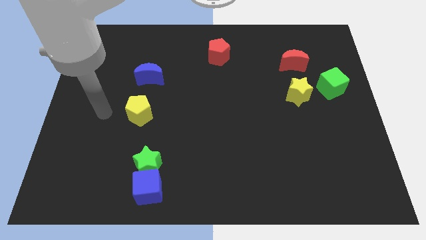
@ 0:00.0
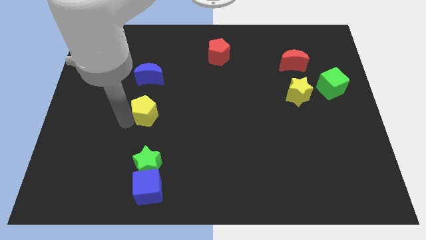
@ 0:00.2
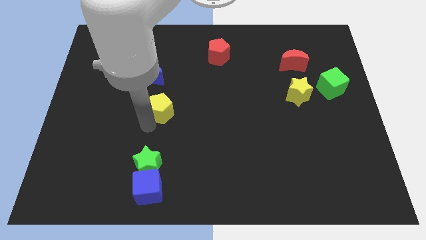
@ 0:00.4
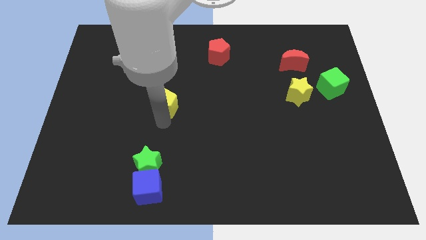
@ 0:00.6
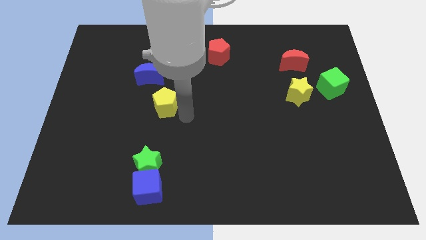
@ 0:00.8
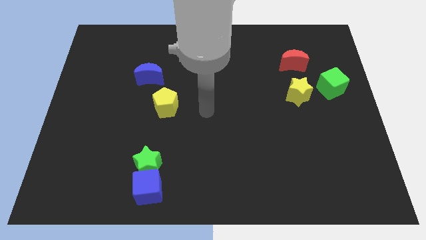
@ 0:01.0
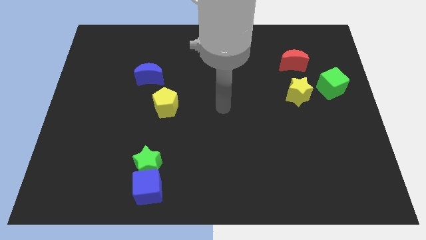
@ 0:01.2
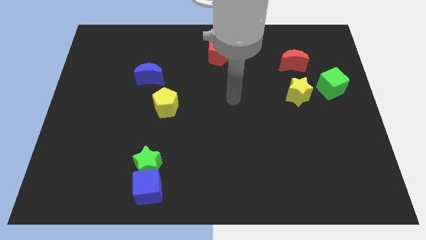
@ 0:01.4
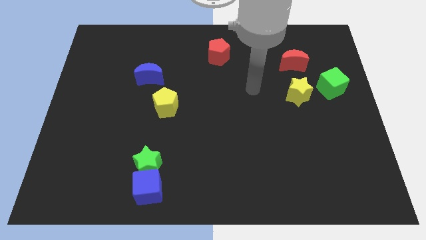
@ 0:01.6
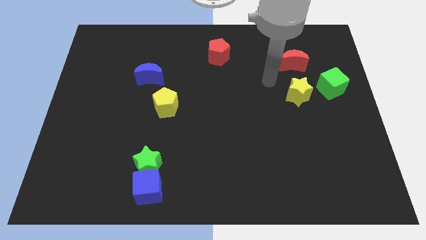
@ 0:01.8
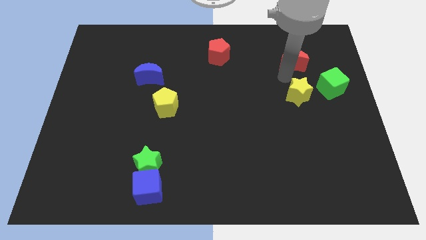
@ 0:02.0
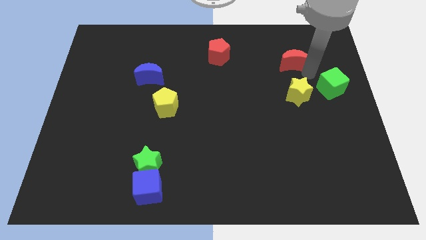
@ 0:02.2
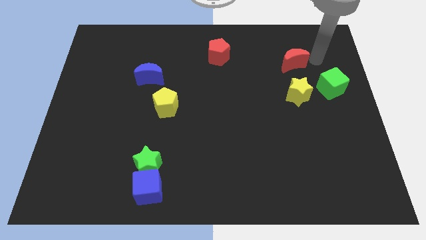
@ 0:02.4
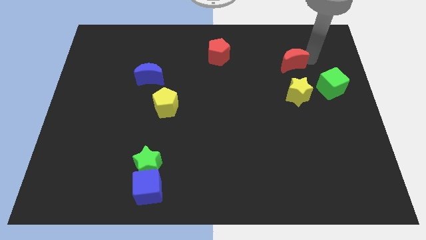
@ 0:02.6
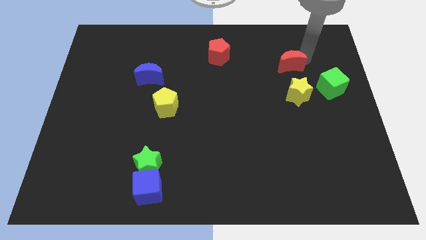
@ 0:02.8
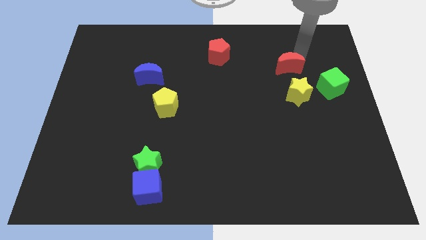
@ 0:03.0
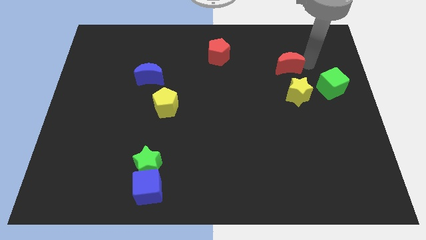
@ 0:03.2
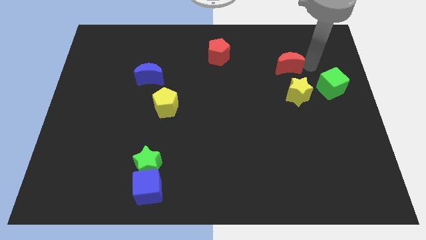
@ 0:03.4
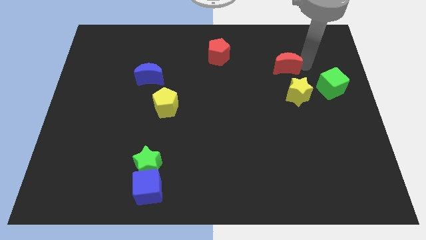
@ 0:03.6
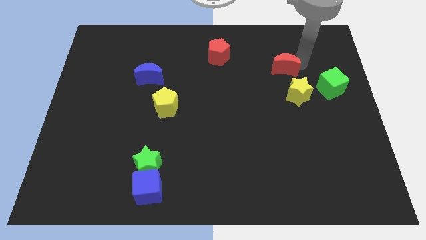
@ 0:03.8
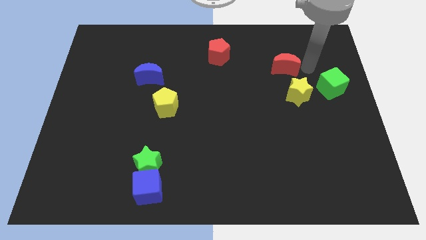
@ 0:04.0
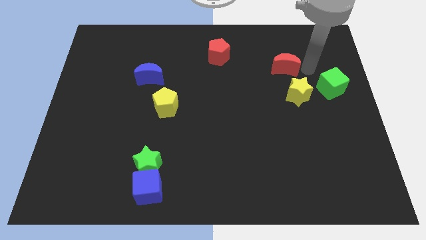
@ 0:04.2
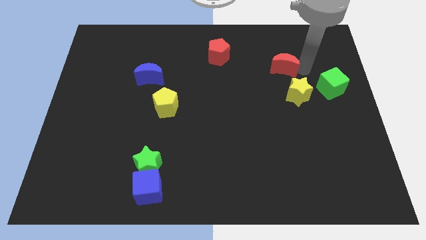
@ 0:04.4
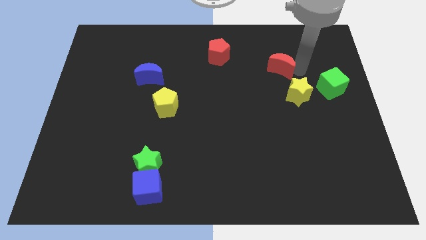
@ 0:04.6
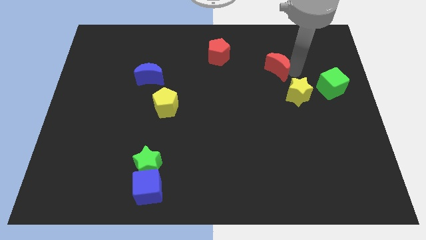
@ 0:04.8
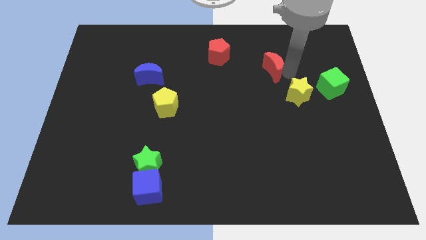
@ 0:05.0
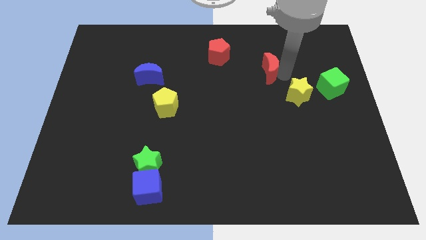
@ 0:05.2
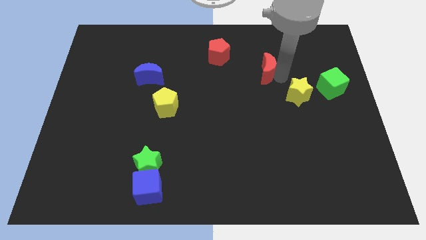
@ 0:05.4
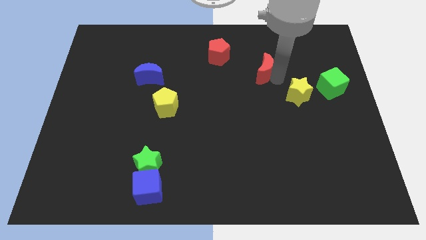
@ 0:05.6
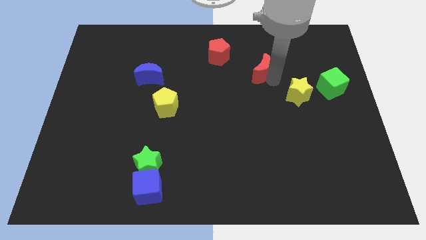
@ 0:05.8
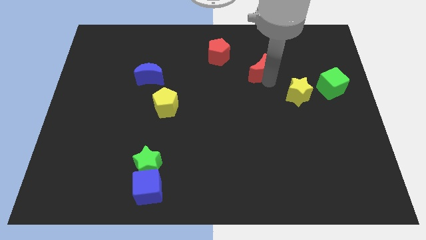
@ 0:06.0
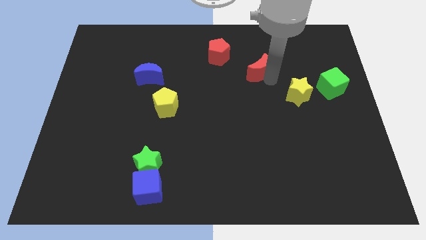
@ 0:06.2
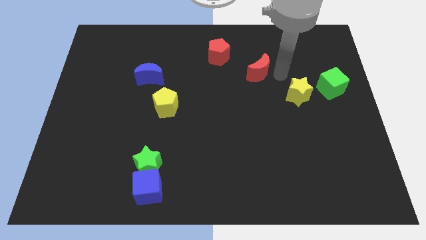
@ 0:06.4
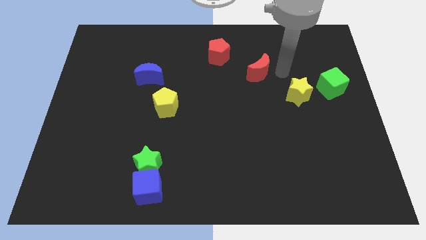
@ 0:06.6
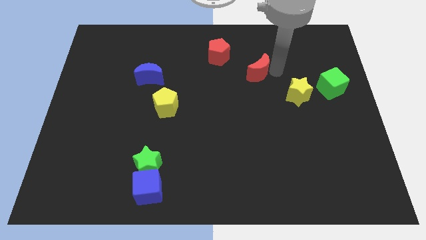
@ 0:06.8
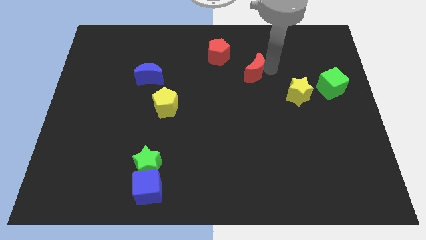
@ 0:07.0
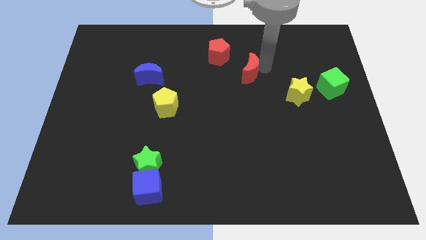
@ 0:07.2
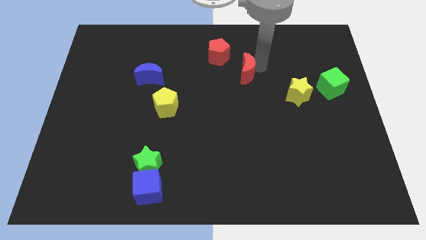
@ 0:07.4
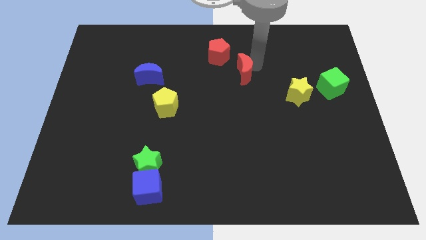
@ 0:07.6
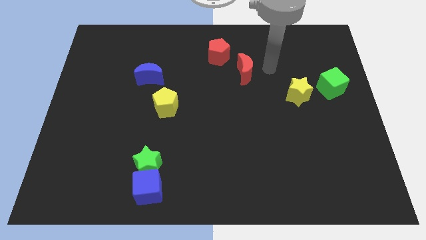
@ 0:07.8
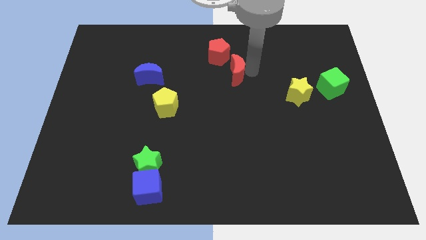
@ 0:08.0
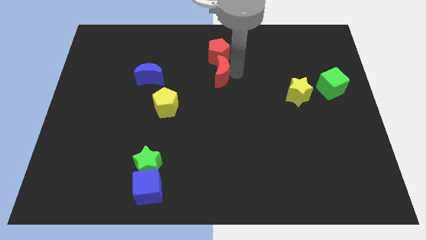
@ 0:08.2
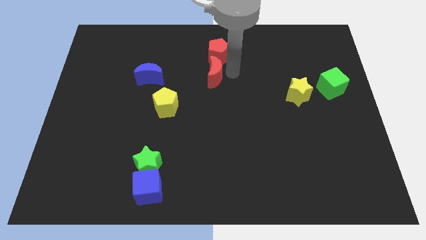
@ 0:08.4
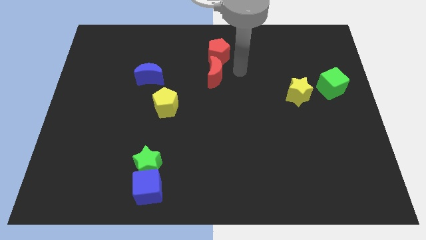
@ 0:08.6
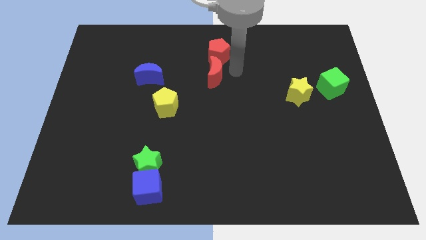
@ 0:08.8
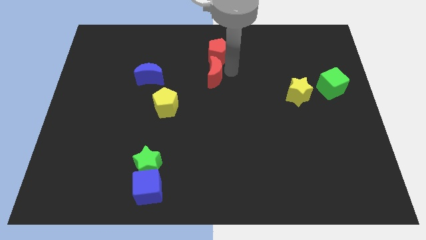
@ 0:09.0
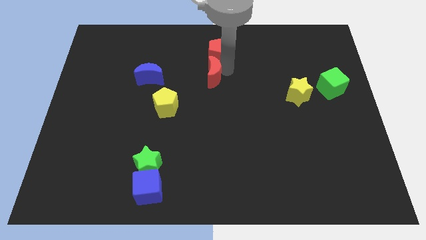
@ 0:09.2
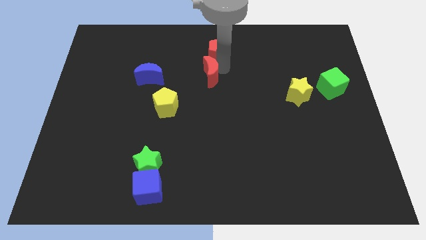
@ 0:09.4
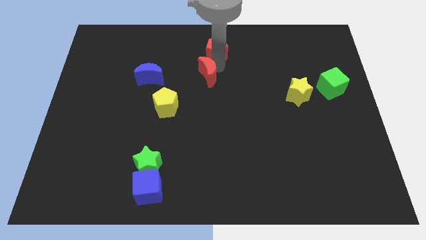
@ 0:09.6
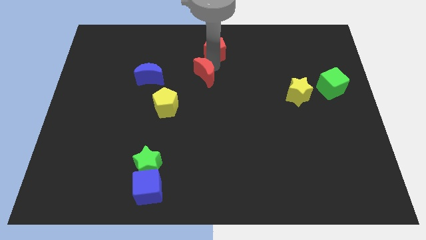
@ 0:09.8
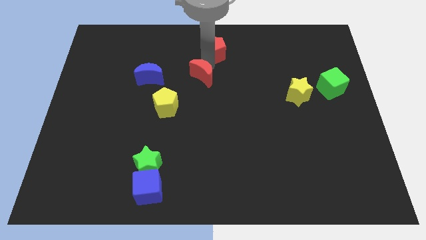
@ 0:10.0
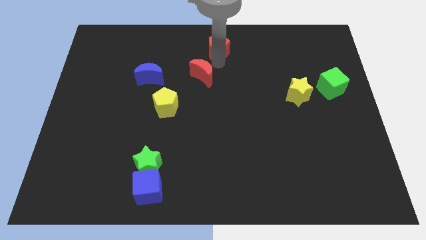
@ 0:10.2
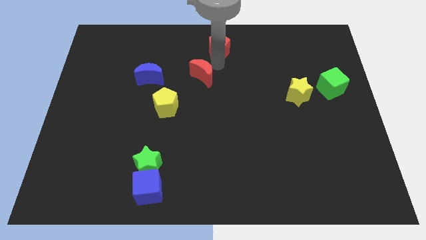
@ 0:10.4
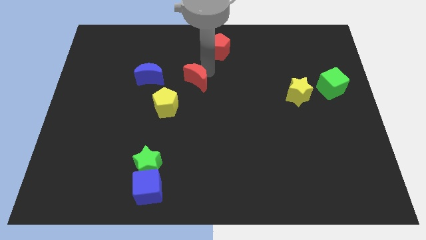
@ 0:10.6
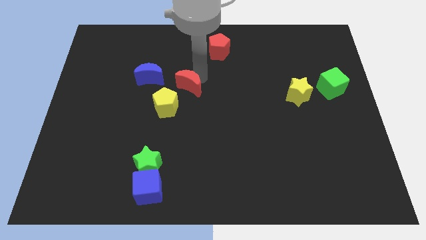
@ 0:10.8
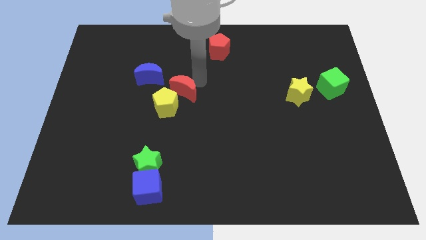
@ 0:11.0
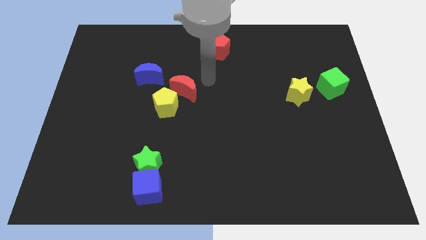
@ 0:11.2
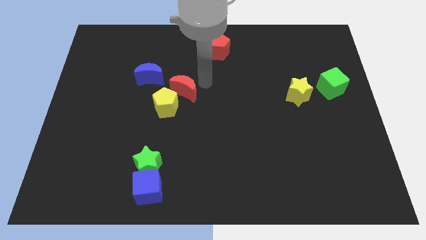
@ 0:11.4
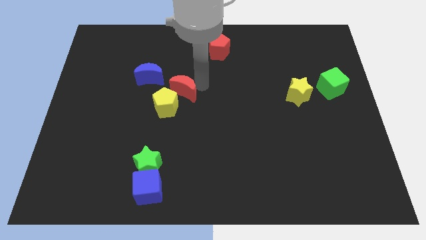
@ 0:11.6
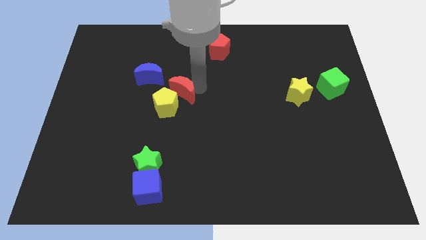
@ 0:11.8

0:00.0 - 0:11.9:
slide the red moon close to the yellow pentagon

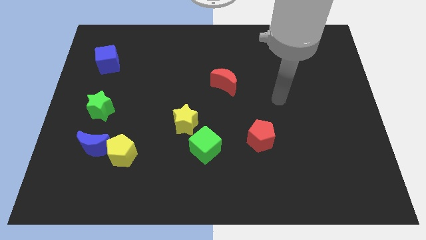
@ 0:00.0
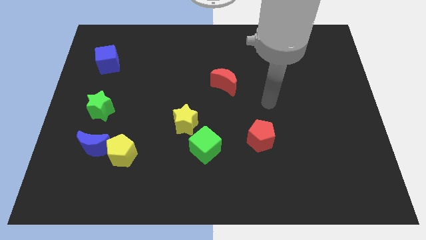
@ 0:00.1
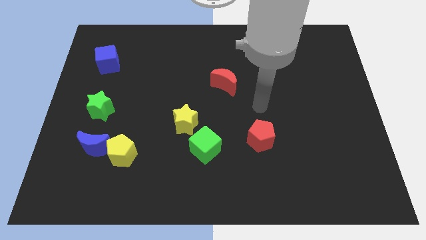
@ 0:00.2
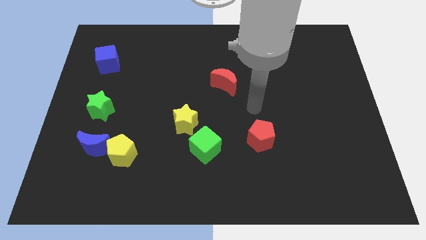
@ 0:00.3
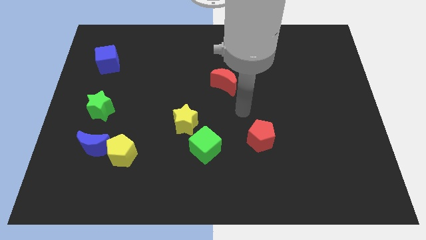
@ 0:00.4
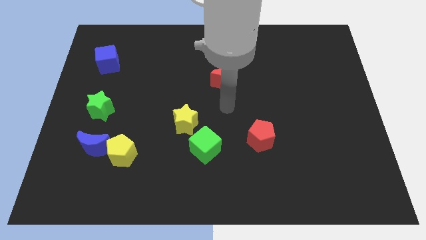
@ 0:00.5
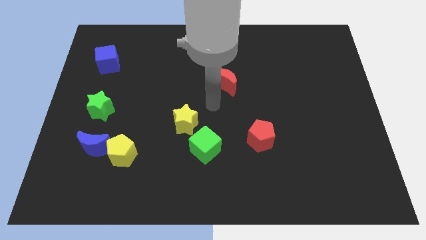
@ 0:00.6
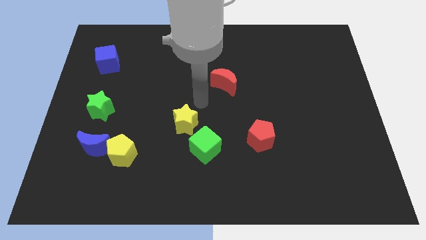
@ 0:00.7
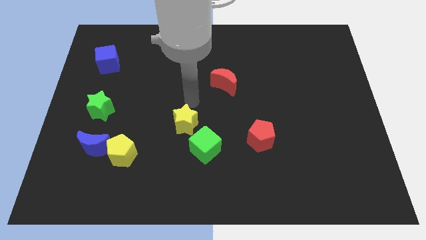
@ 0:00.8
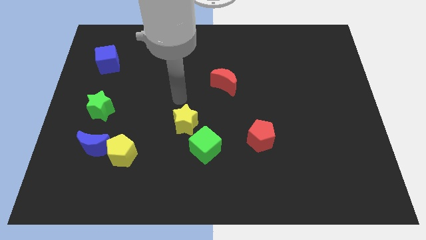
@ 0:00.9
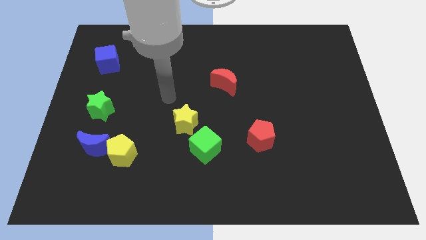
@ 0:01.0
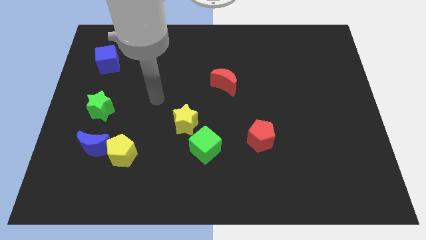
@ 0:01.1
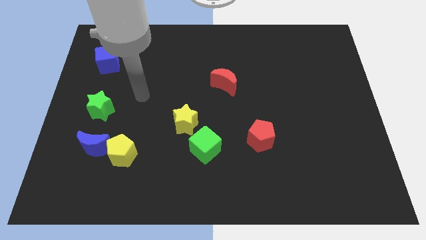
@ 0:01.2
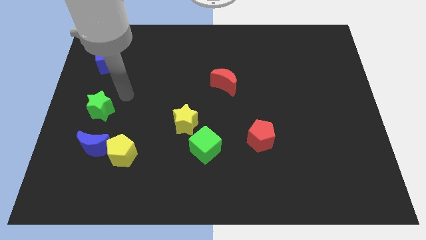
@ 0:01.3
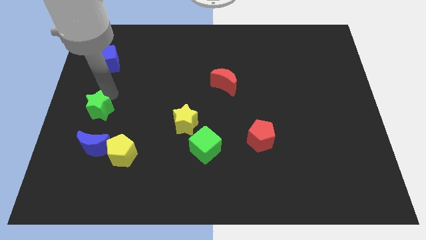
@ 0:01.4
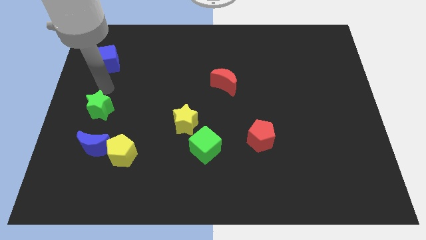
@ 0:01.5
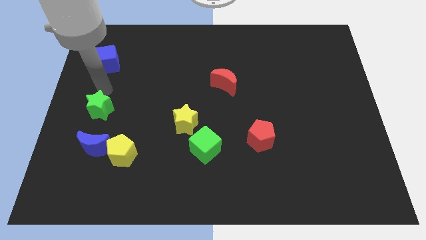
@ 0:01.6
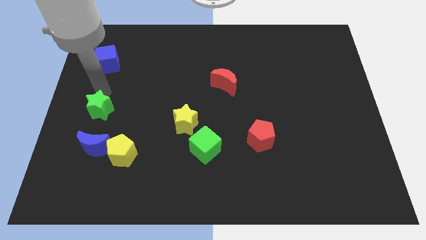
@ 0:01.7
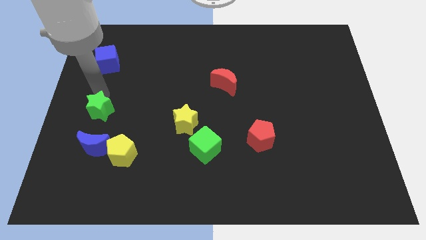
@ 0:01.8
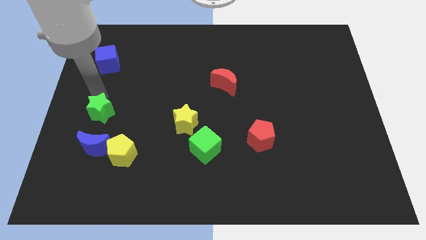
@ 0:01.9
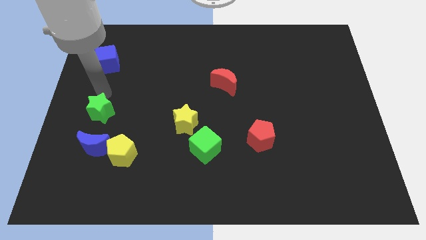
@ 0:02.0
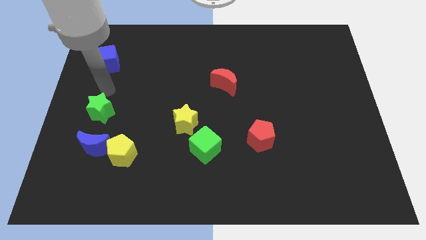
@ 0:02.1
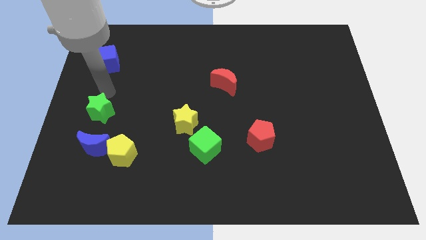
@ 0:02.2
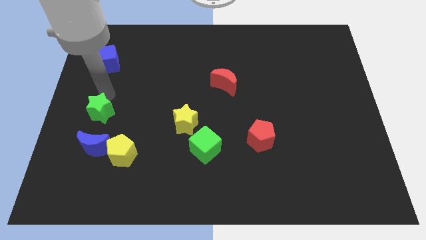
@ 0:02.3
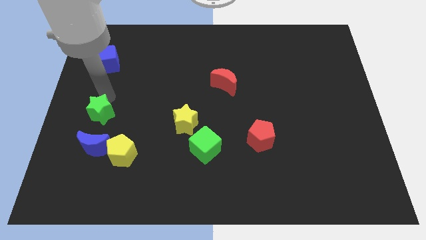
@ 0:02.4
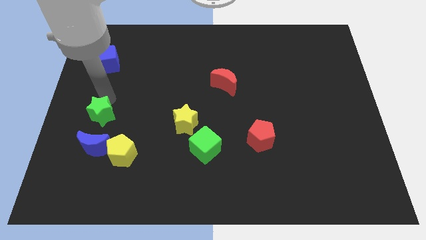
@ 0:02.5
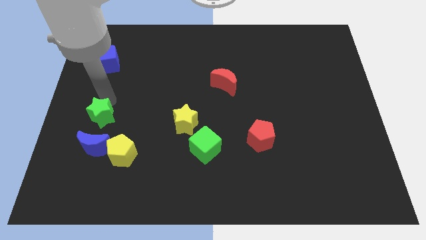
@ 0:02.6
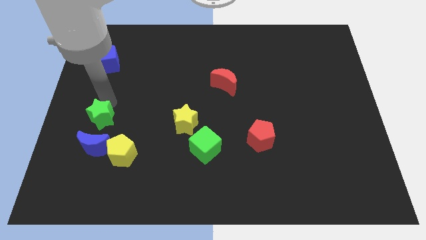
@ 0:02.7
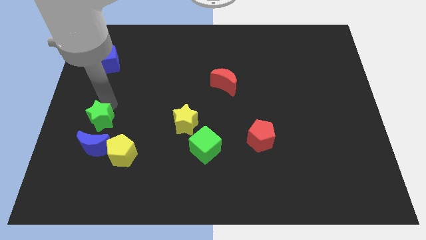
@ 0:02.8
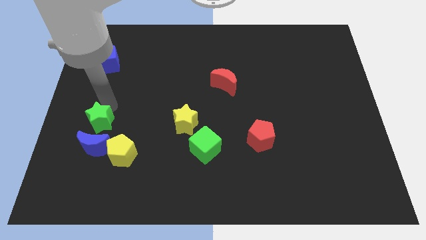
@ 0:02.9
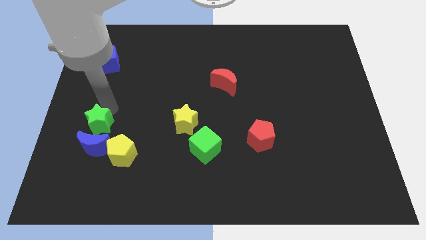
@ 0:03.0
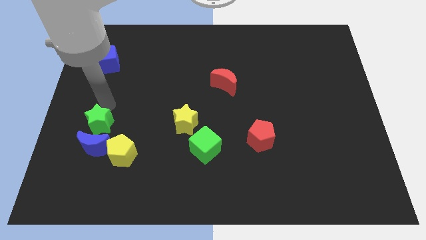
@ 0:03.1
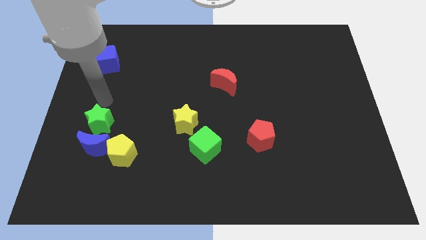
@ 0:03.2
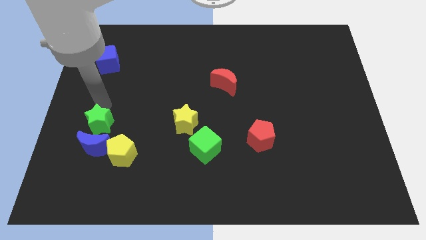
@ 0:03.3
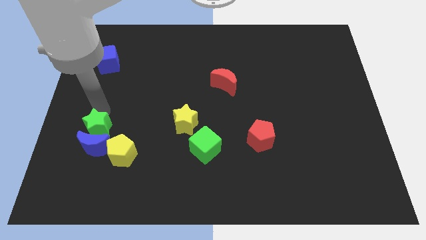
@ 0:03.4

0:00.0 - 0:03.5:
push the green star to the blue moon
